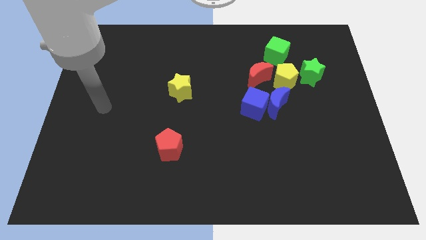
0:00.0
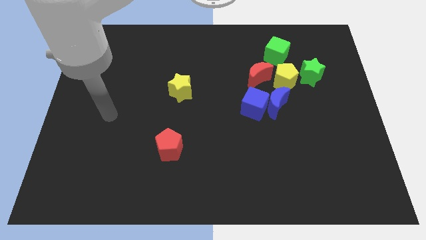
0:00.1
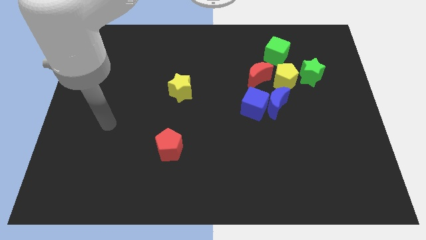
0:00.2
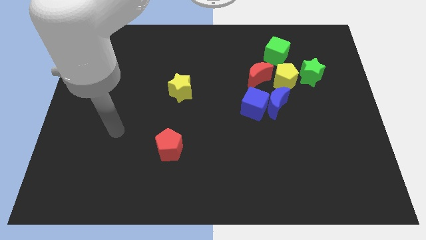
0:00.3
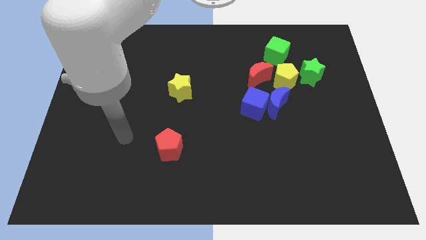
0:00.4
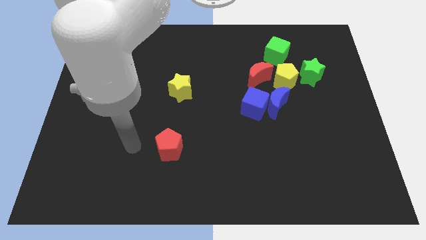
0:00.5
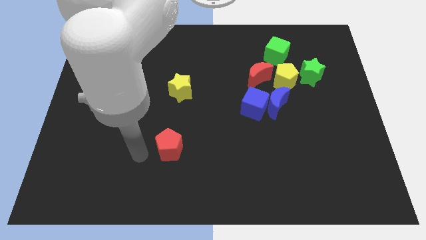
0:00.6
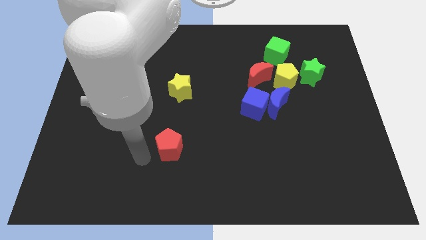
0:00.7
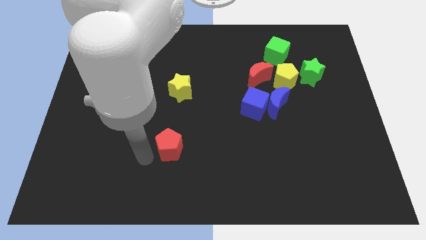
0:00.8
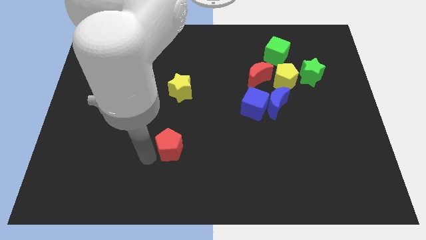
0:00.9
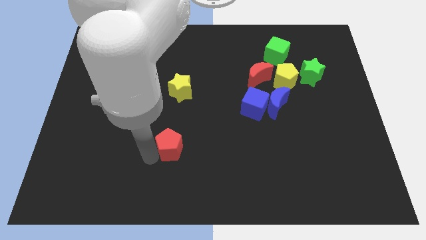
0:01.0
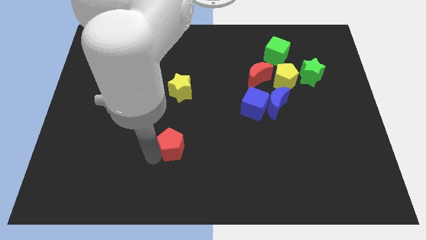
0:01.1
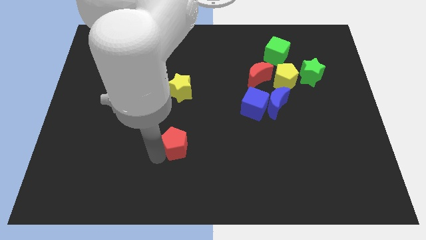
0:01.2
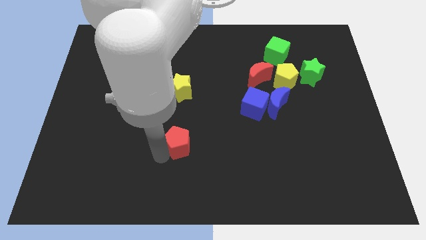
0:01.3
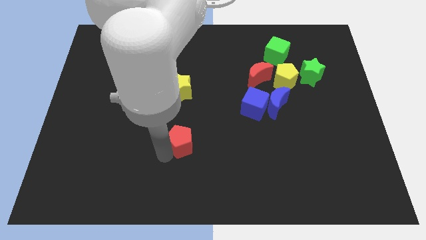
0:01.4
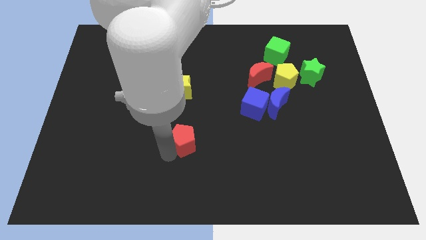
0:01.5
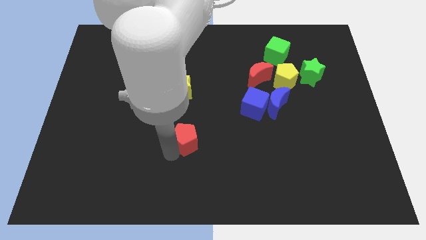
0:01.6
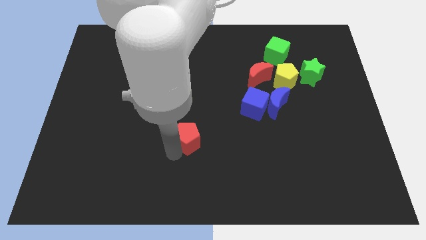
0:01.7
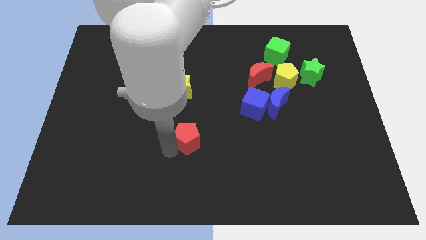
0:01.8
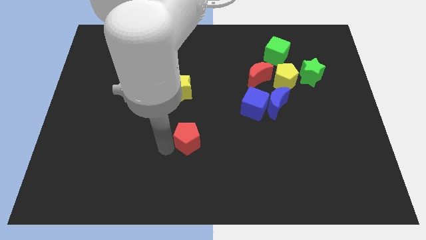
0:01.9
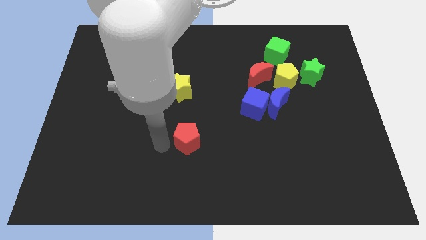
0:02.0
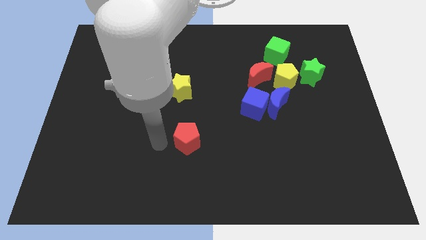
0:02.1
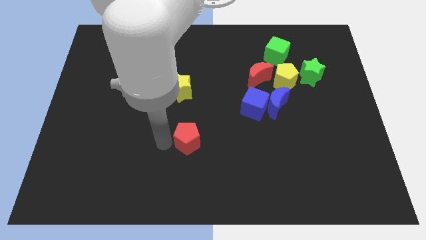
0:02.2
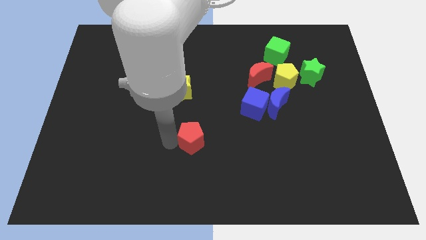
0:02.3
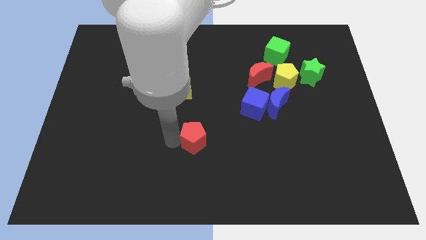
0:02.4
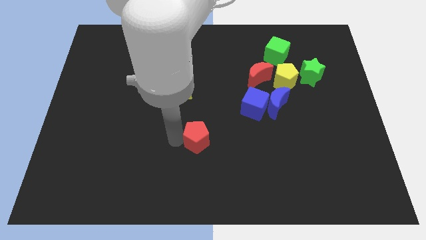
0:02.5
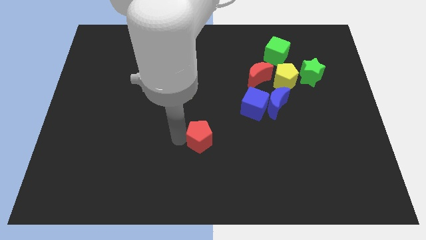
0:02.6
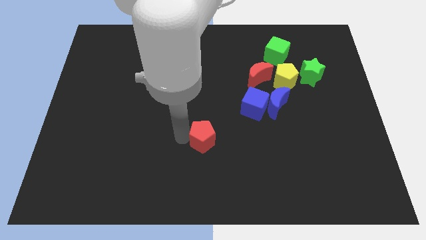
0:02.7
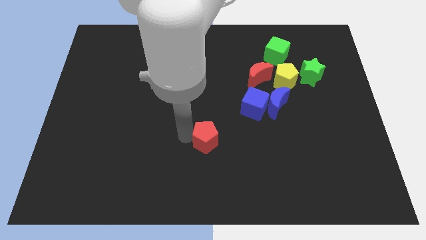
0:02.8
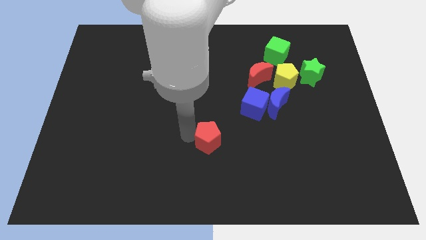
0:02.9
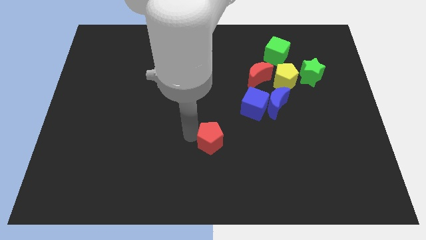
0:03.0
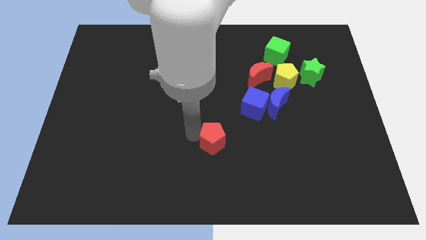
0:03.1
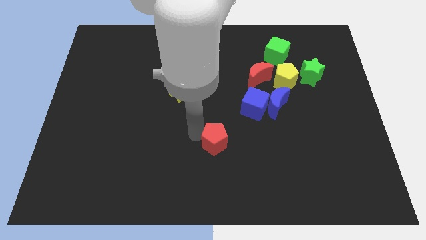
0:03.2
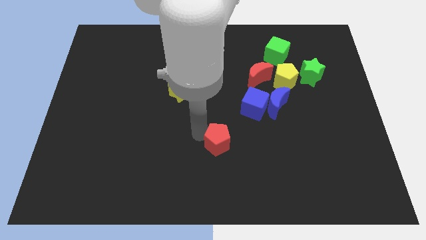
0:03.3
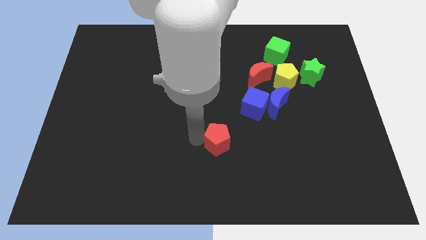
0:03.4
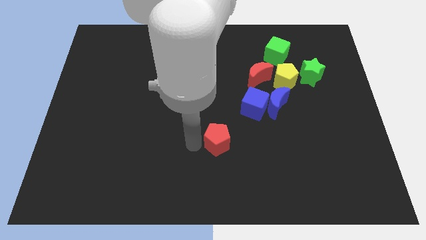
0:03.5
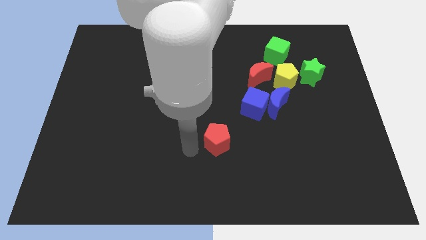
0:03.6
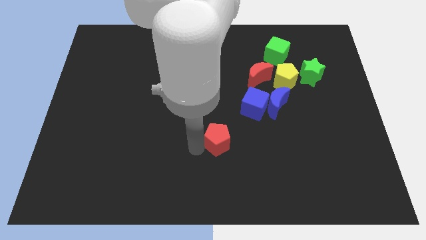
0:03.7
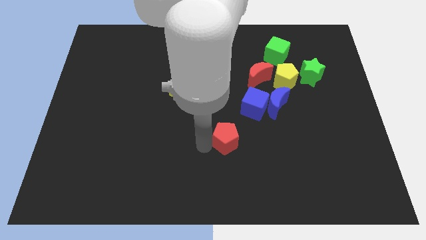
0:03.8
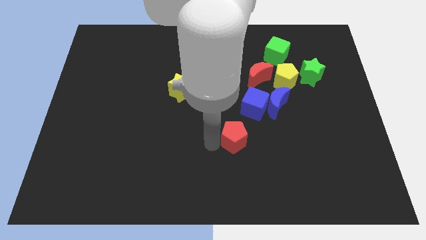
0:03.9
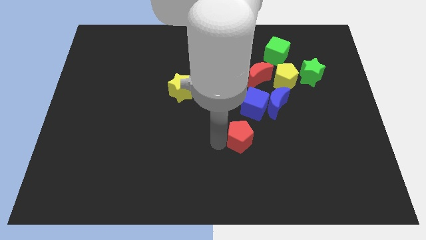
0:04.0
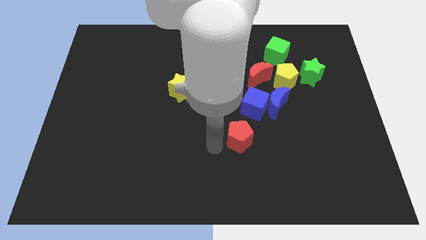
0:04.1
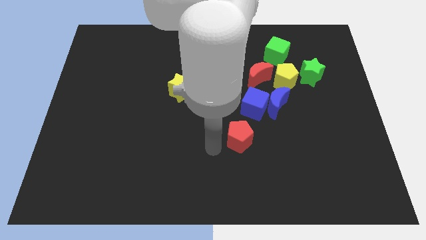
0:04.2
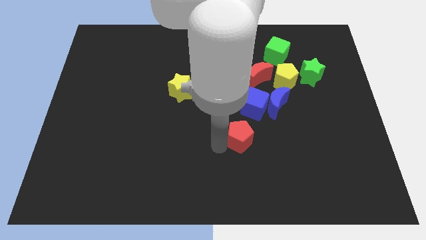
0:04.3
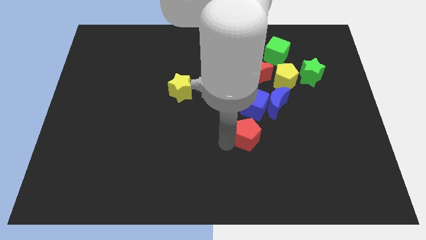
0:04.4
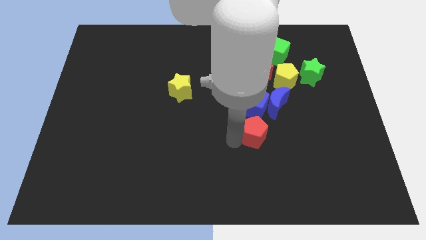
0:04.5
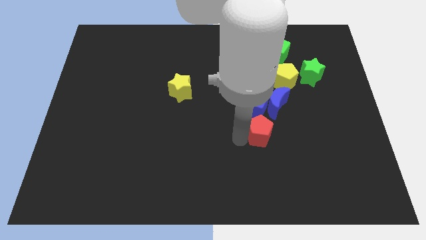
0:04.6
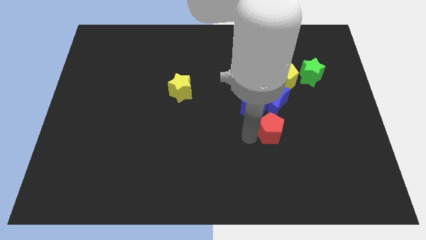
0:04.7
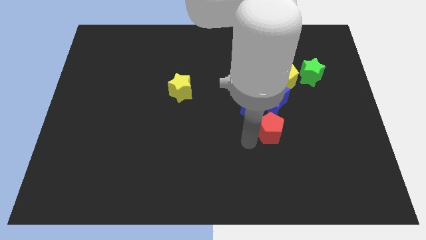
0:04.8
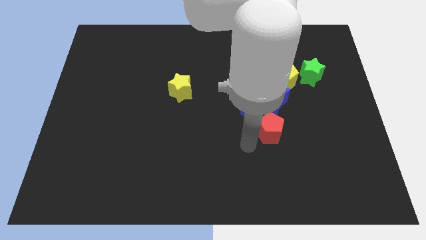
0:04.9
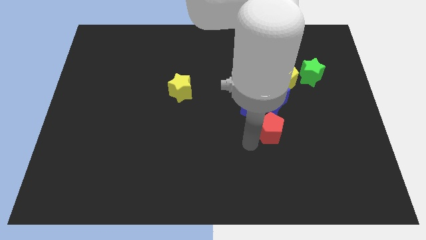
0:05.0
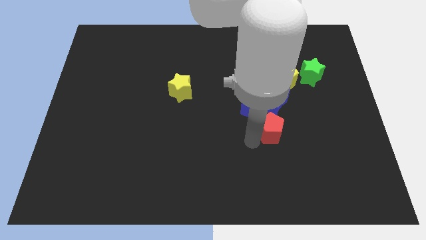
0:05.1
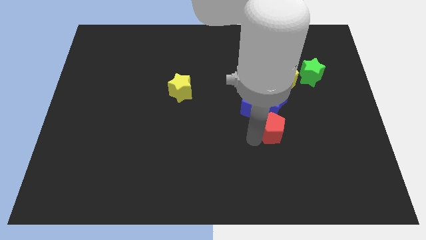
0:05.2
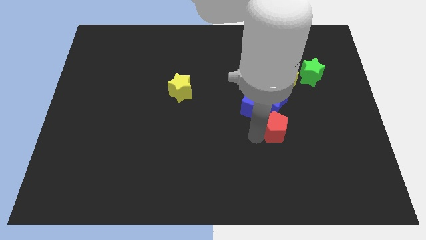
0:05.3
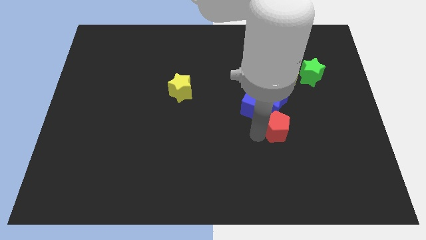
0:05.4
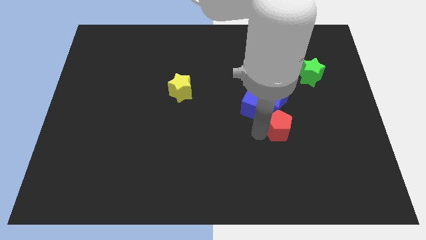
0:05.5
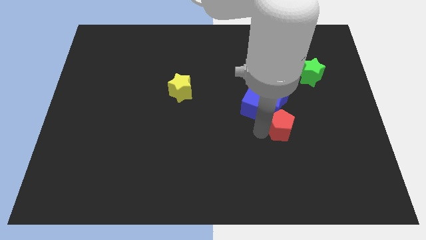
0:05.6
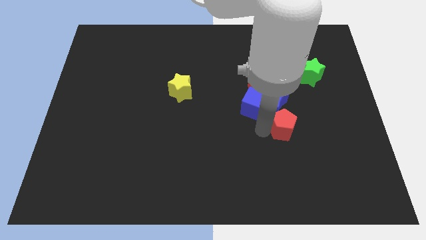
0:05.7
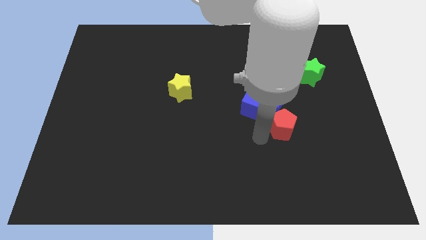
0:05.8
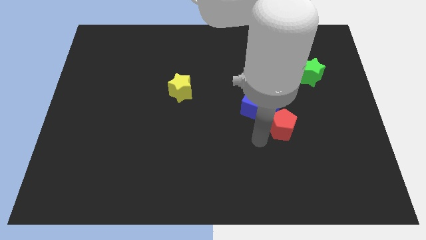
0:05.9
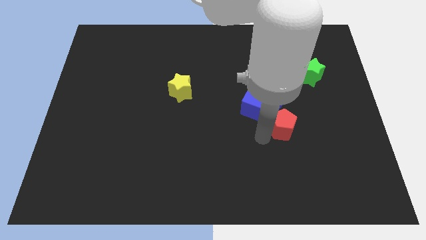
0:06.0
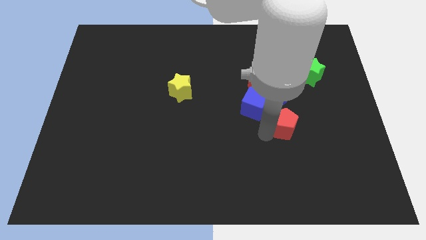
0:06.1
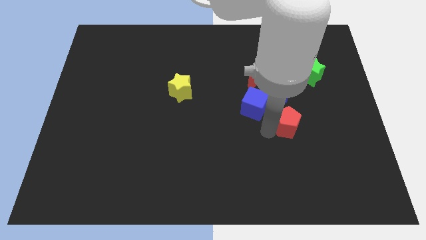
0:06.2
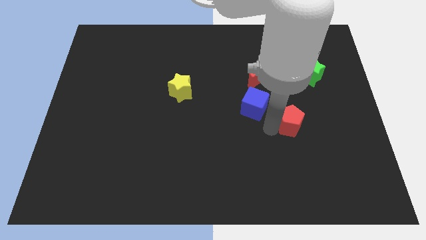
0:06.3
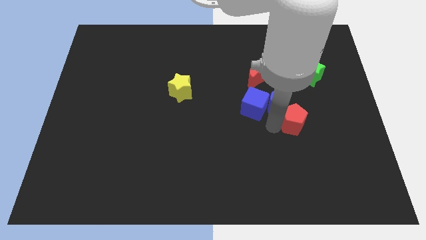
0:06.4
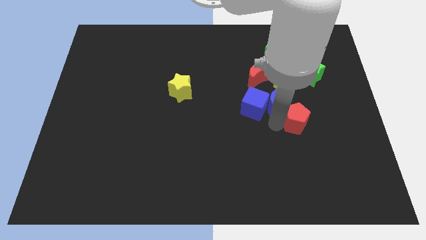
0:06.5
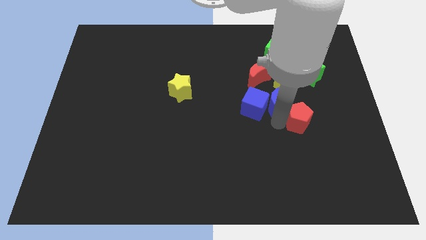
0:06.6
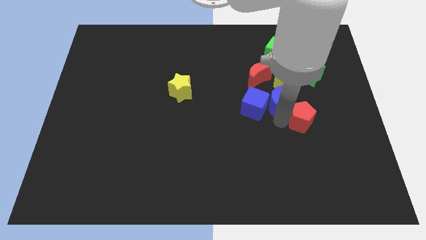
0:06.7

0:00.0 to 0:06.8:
move the red pentagon to the bottom of the green star

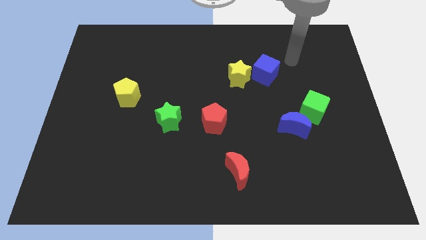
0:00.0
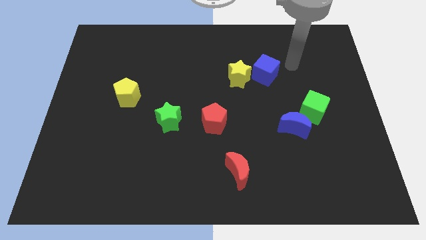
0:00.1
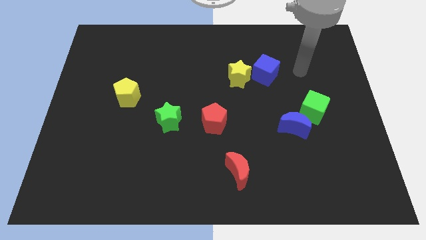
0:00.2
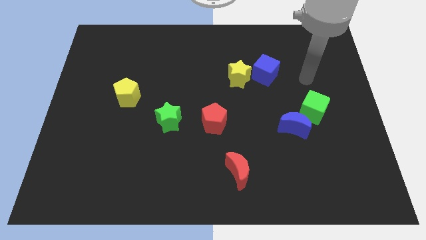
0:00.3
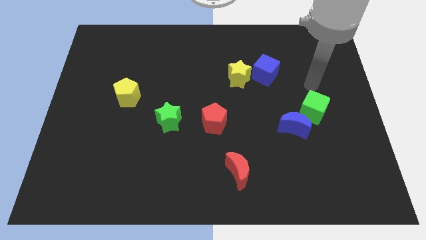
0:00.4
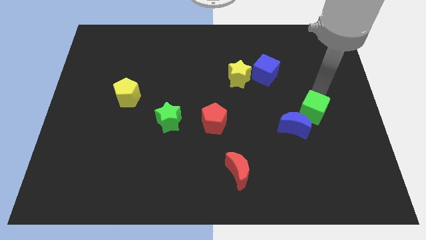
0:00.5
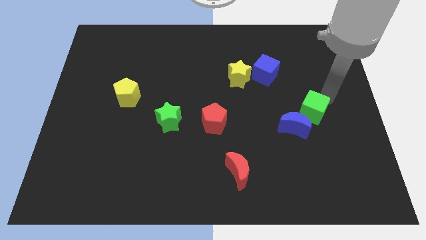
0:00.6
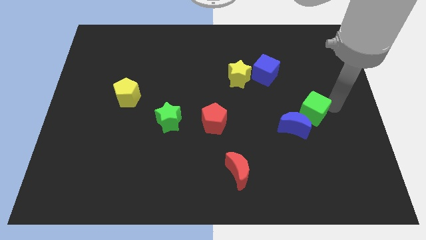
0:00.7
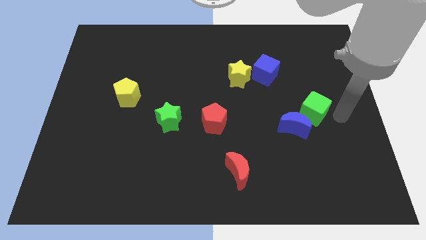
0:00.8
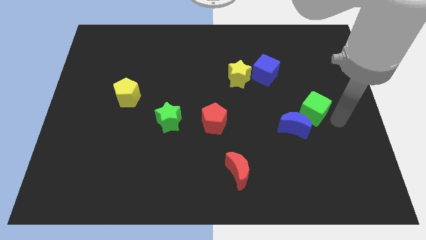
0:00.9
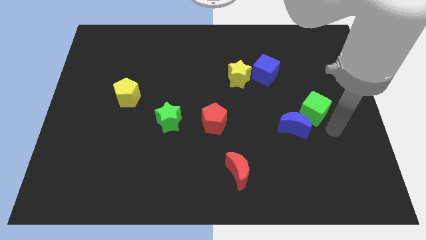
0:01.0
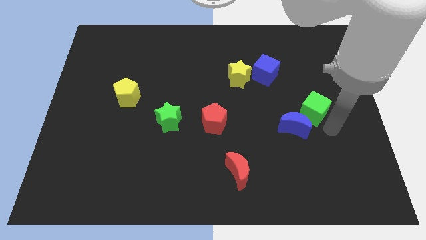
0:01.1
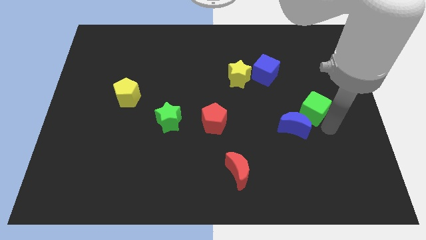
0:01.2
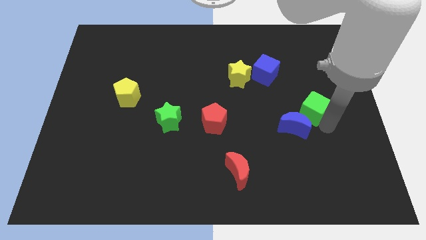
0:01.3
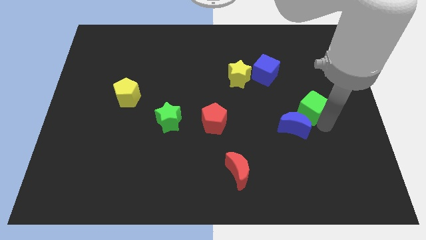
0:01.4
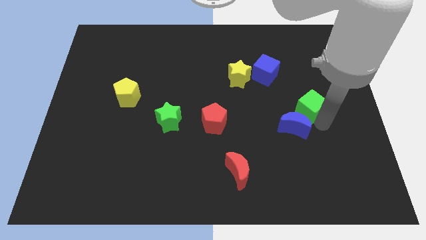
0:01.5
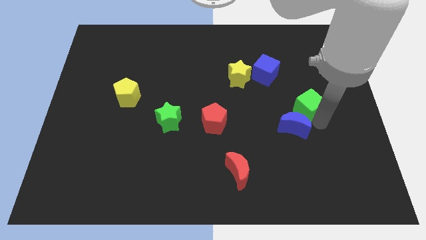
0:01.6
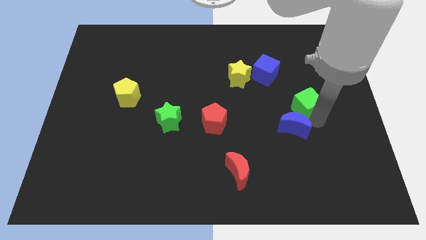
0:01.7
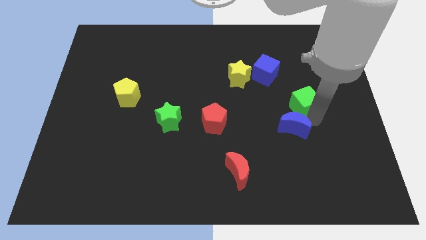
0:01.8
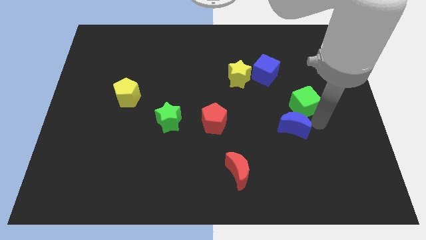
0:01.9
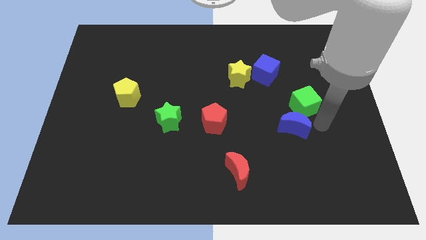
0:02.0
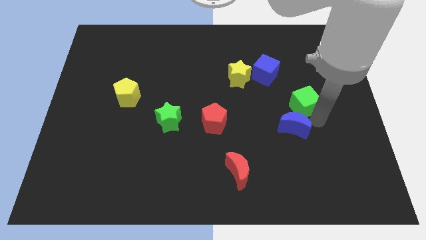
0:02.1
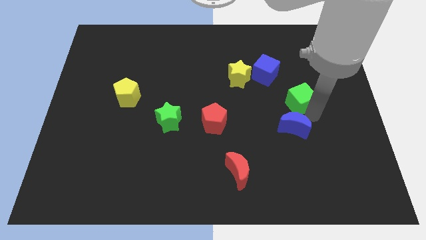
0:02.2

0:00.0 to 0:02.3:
push the green cube diagonally down and to the right of the blue cube
